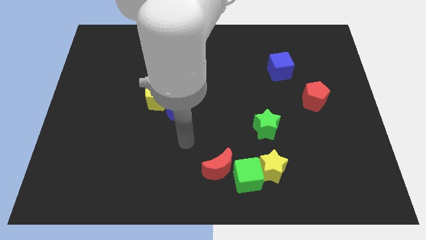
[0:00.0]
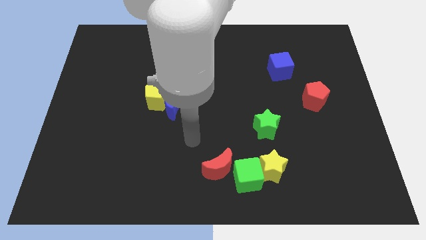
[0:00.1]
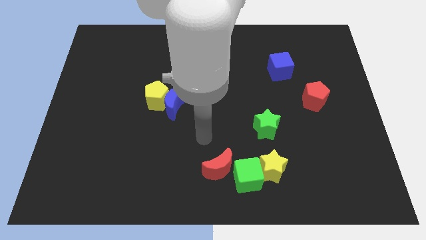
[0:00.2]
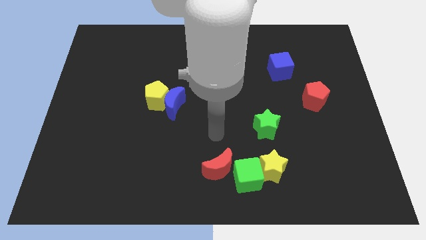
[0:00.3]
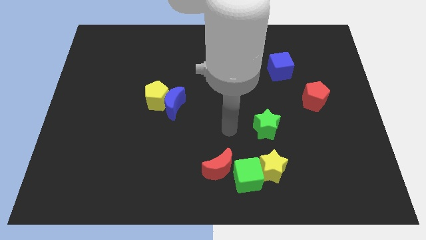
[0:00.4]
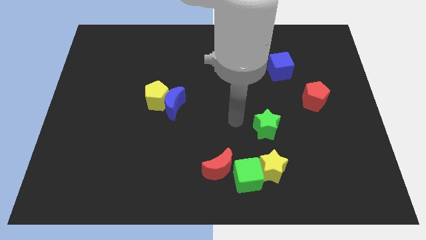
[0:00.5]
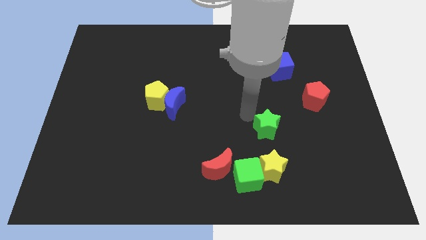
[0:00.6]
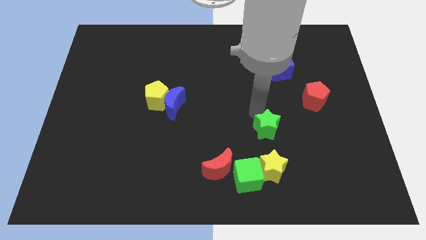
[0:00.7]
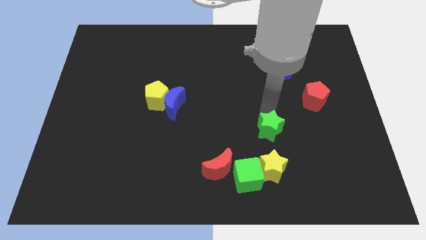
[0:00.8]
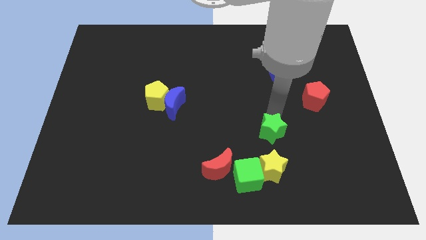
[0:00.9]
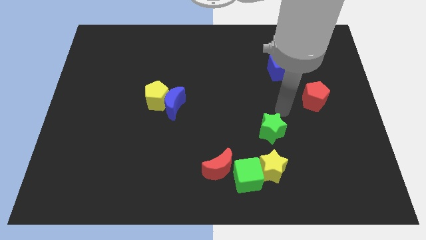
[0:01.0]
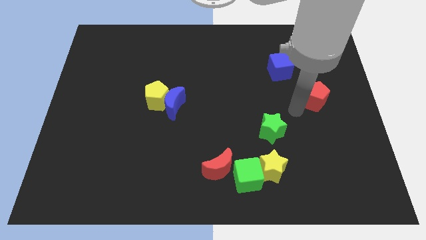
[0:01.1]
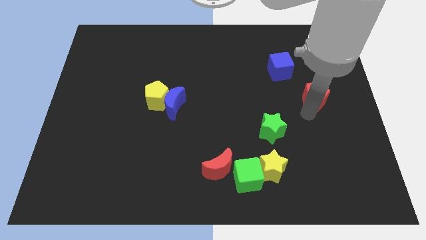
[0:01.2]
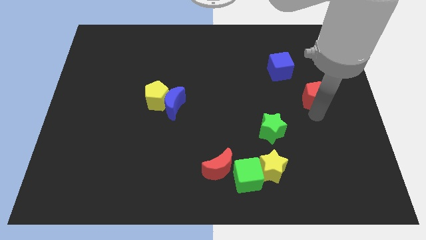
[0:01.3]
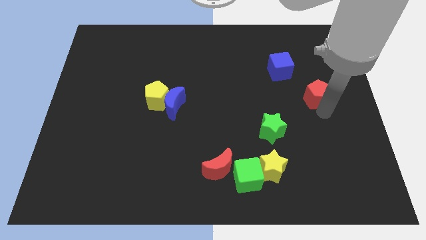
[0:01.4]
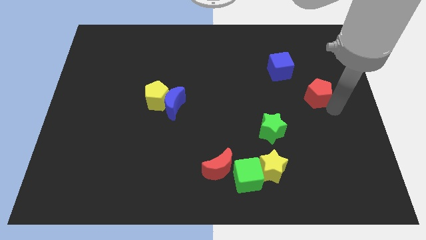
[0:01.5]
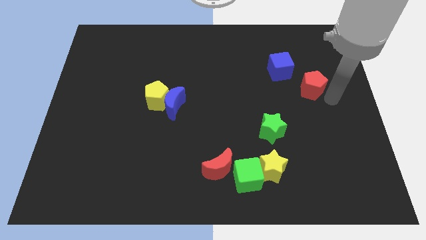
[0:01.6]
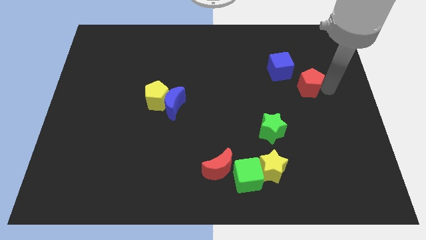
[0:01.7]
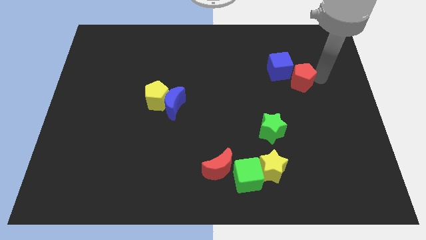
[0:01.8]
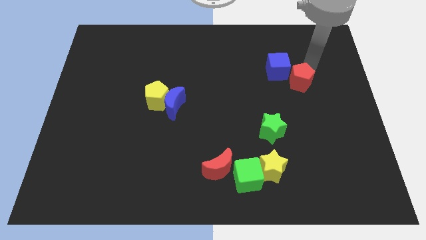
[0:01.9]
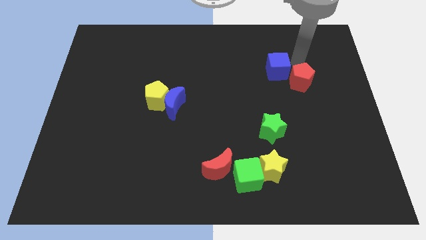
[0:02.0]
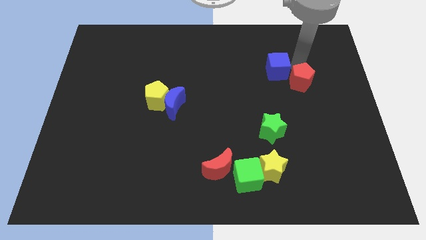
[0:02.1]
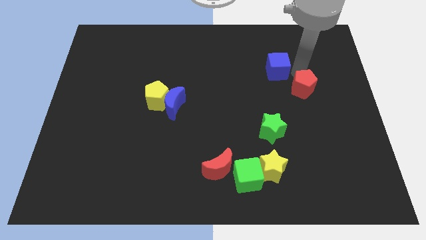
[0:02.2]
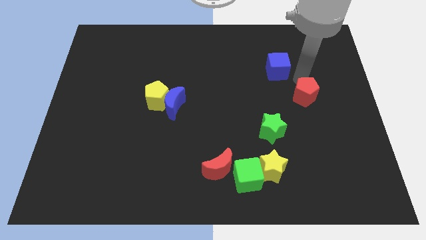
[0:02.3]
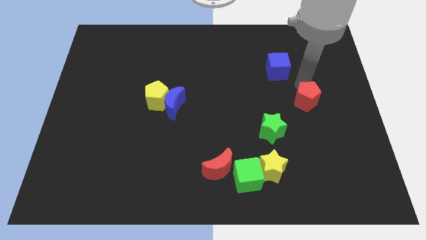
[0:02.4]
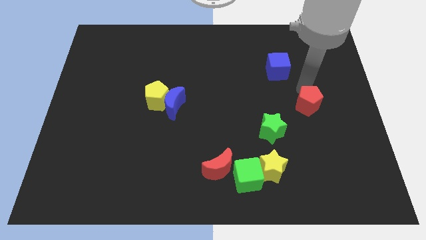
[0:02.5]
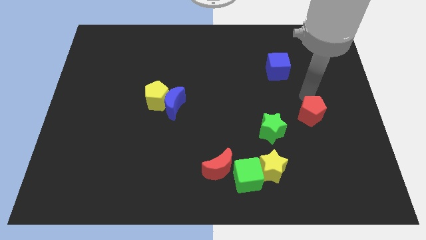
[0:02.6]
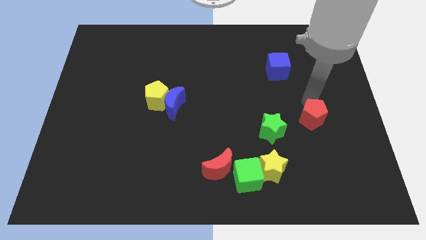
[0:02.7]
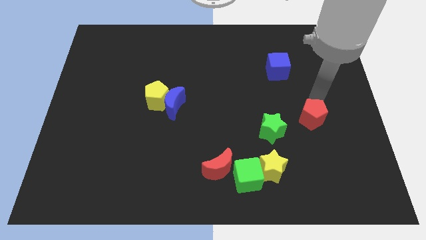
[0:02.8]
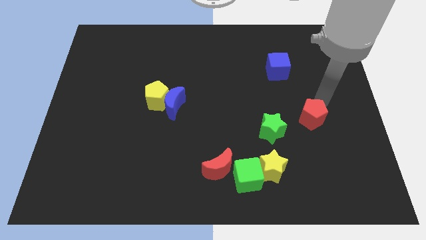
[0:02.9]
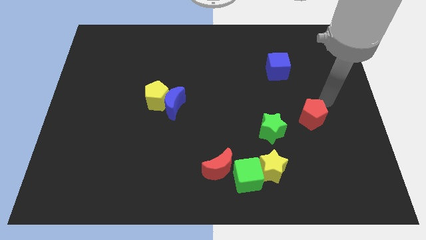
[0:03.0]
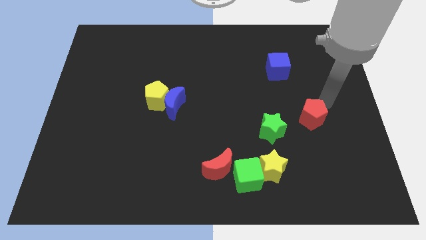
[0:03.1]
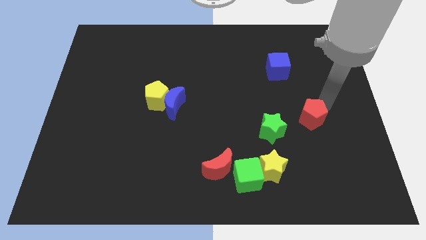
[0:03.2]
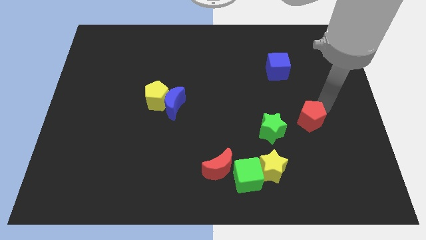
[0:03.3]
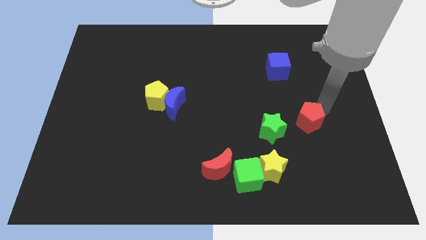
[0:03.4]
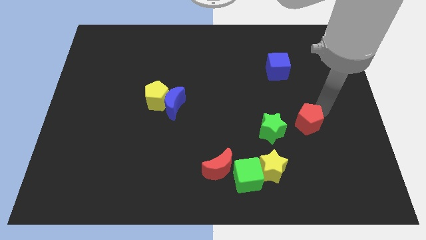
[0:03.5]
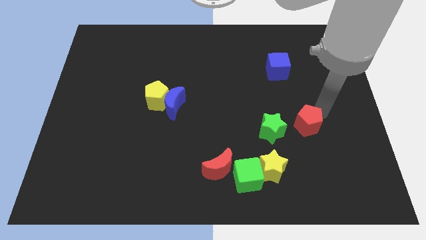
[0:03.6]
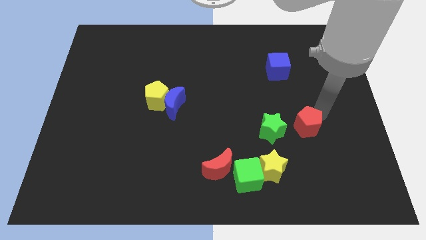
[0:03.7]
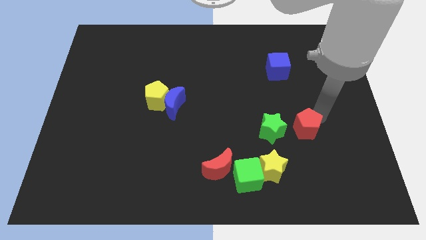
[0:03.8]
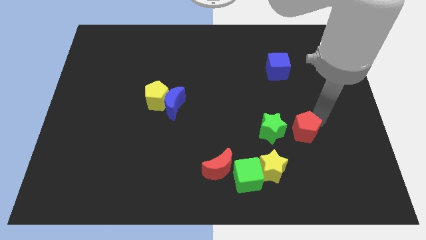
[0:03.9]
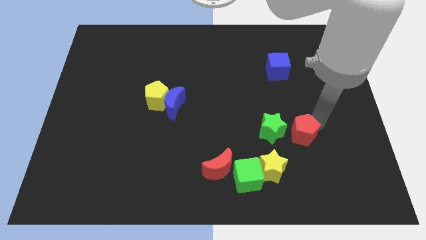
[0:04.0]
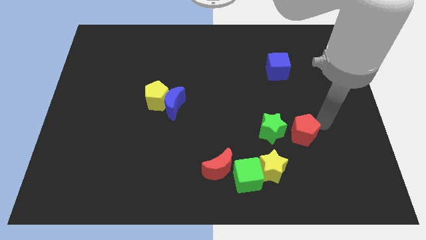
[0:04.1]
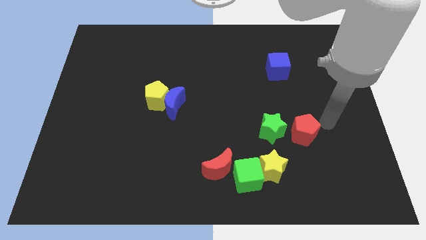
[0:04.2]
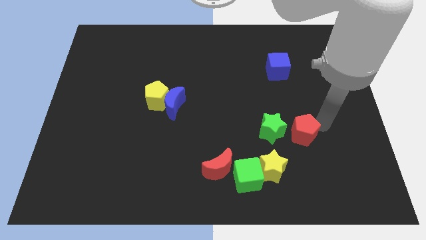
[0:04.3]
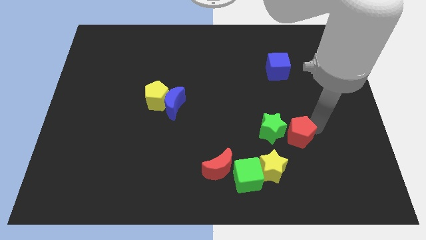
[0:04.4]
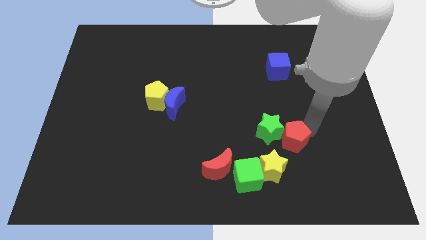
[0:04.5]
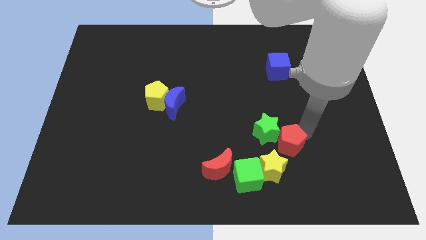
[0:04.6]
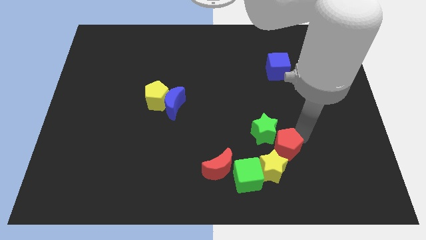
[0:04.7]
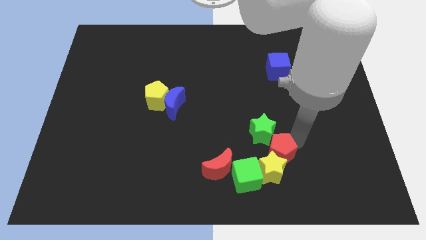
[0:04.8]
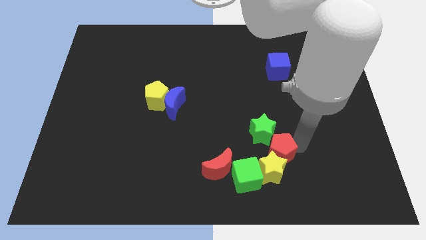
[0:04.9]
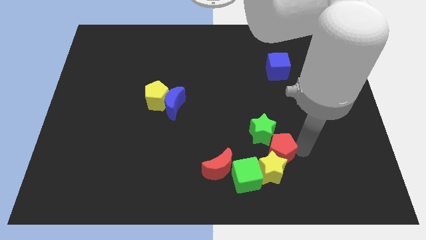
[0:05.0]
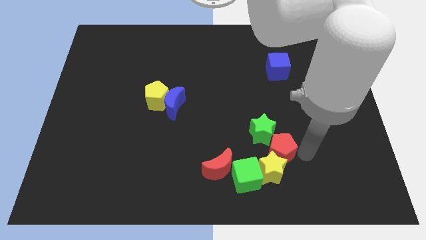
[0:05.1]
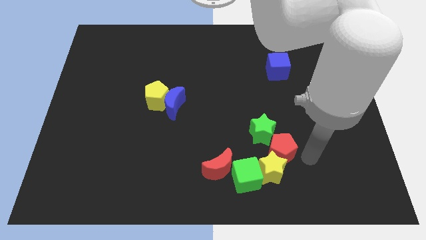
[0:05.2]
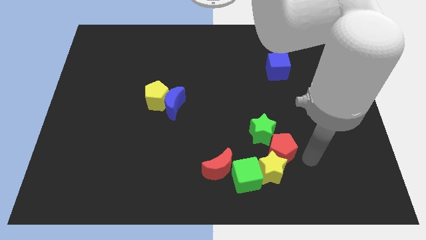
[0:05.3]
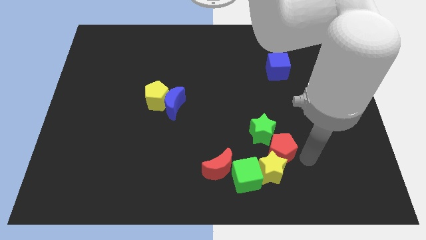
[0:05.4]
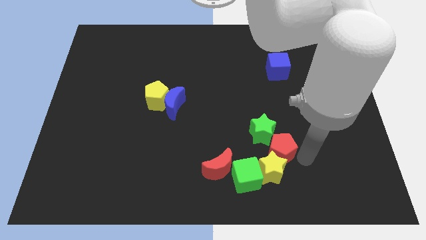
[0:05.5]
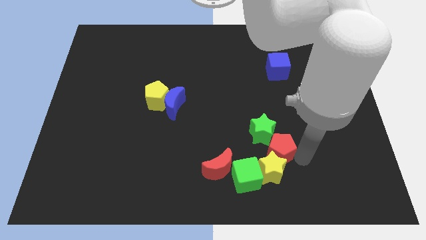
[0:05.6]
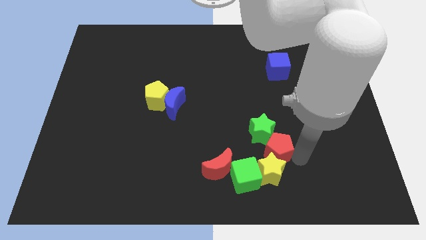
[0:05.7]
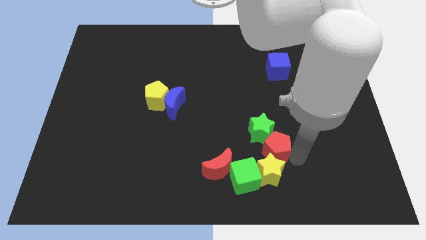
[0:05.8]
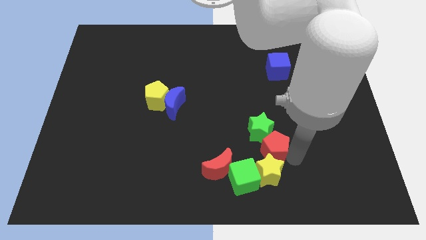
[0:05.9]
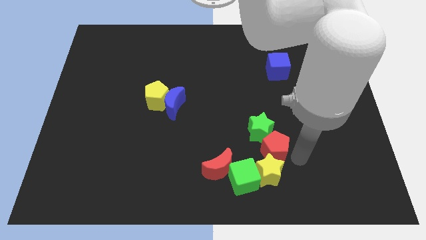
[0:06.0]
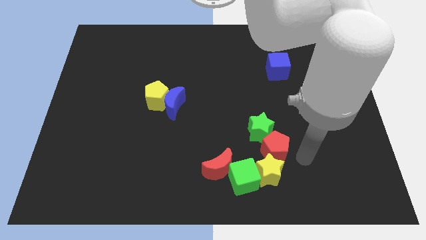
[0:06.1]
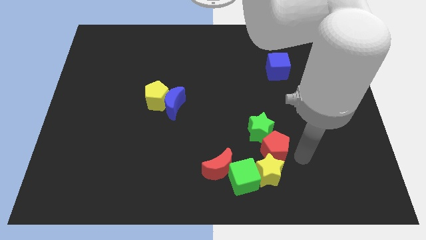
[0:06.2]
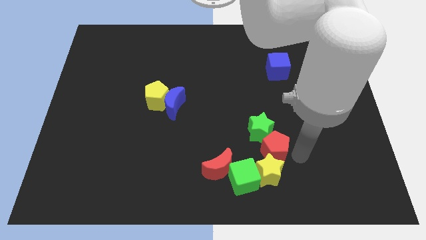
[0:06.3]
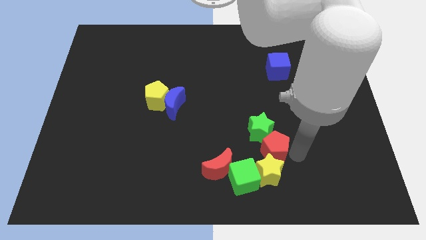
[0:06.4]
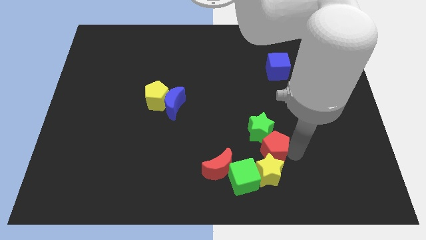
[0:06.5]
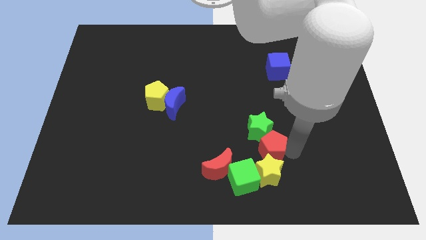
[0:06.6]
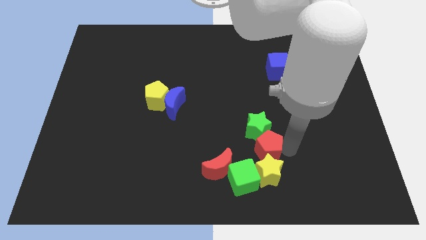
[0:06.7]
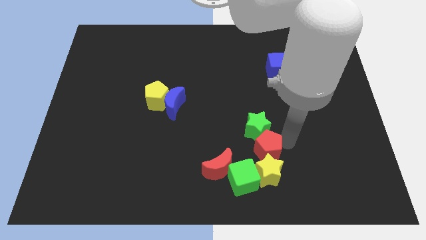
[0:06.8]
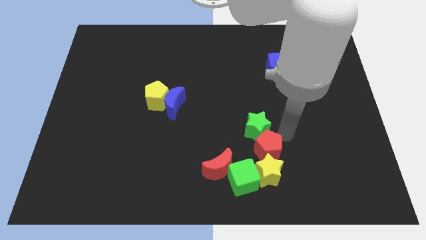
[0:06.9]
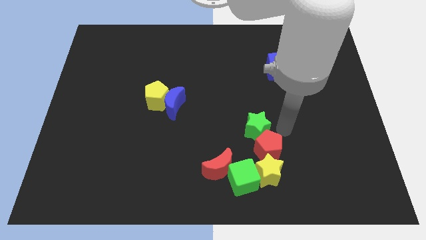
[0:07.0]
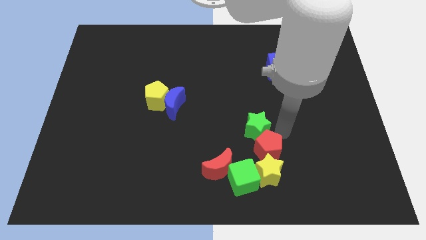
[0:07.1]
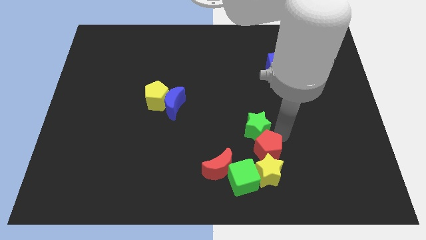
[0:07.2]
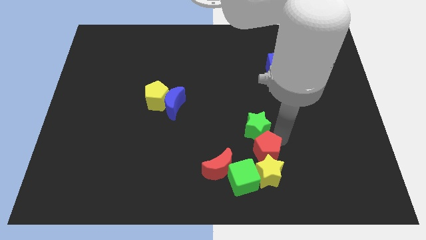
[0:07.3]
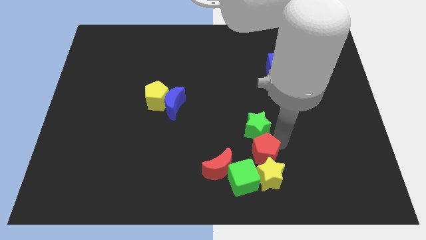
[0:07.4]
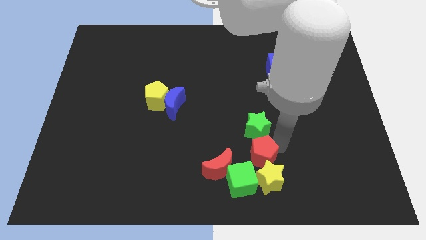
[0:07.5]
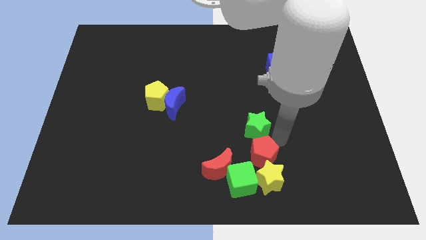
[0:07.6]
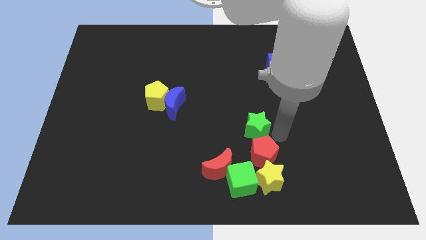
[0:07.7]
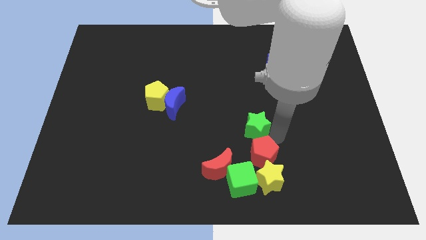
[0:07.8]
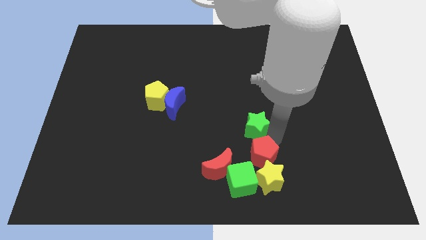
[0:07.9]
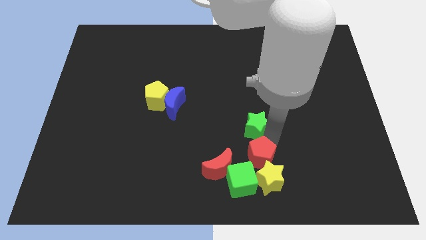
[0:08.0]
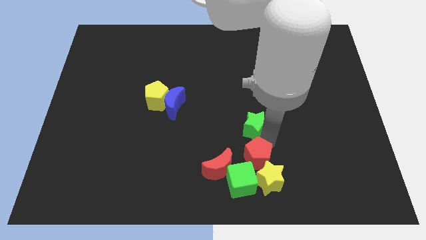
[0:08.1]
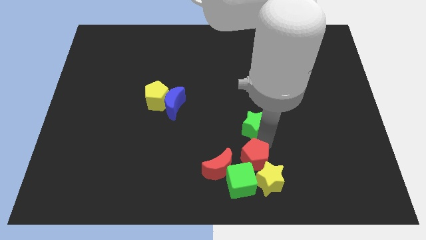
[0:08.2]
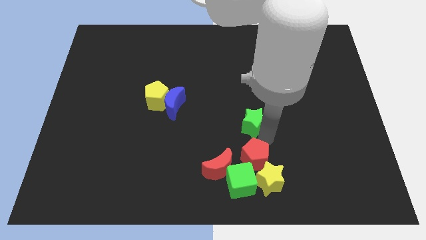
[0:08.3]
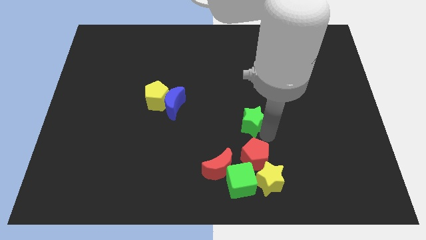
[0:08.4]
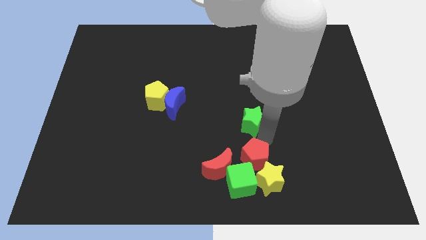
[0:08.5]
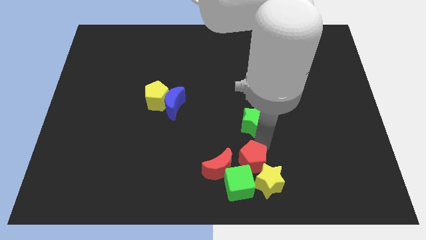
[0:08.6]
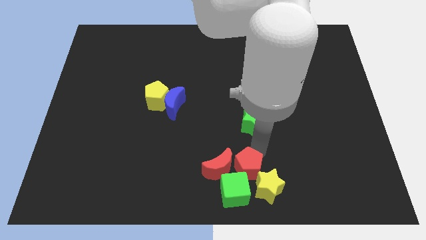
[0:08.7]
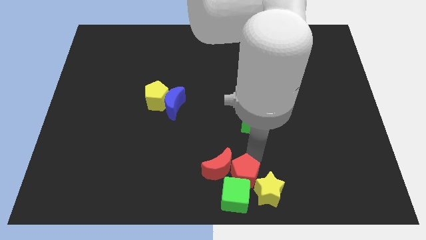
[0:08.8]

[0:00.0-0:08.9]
put the red pentagon close to the green cube
